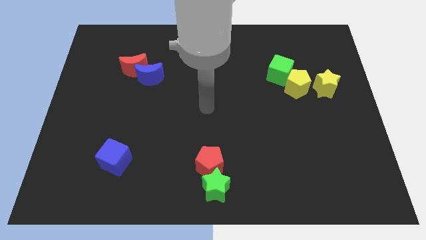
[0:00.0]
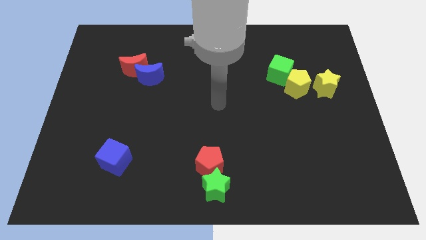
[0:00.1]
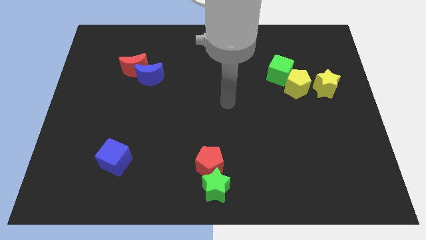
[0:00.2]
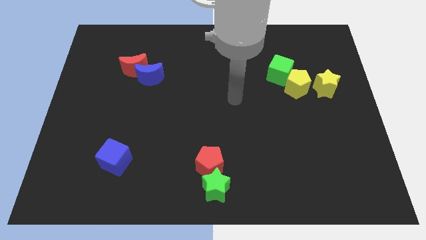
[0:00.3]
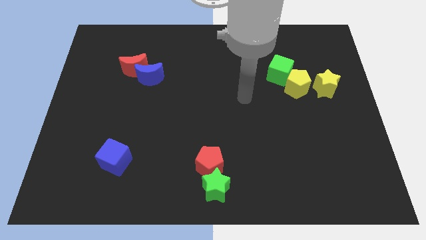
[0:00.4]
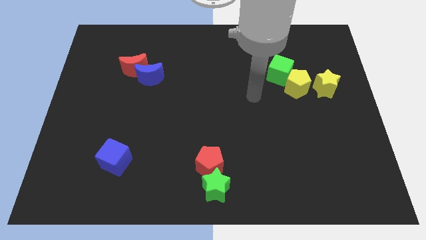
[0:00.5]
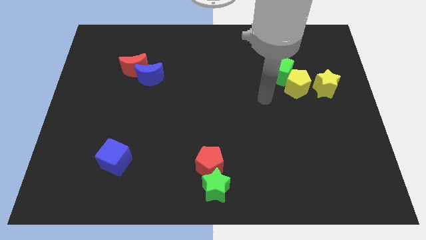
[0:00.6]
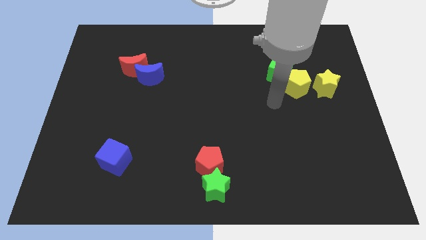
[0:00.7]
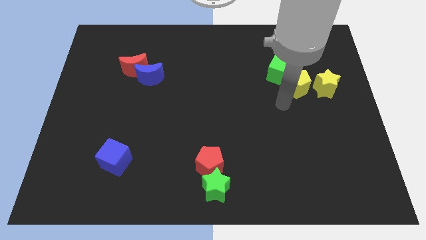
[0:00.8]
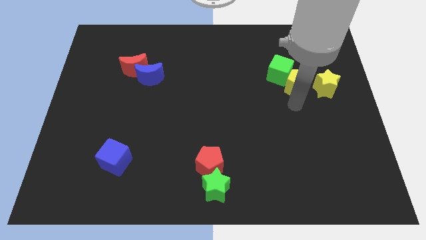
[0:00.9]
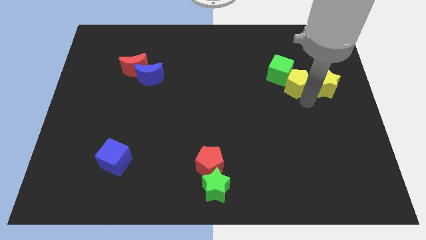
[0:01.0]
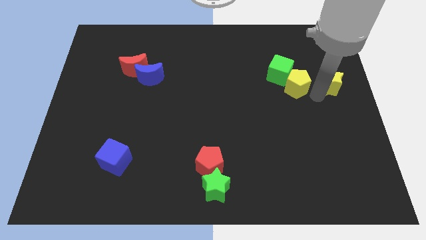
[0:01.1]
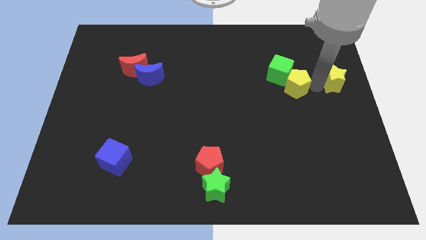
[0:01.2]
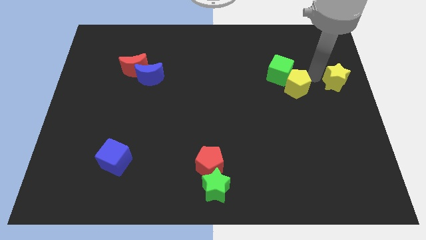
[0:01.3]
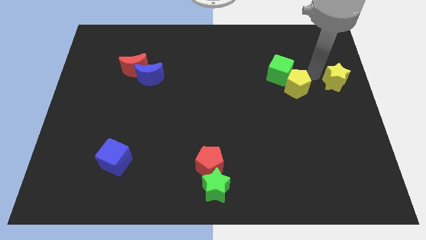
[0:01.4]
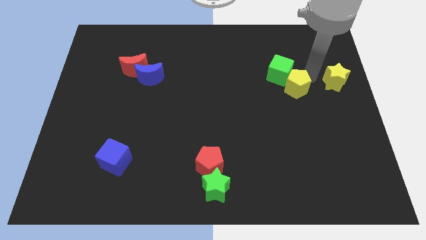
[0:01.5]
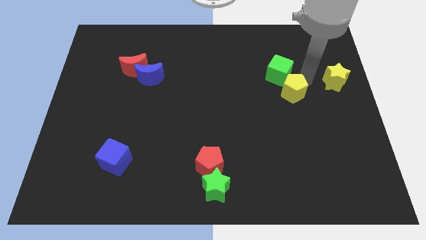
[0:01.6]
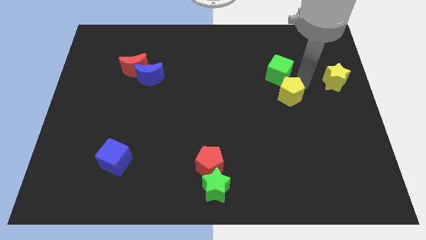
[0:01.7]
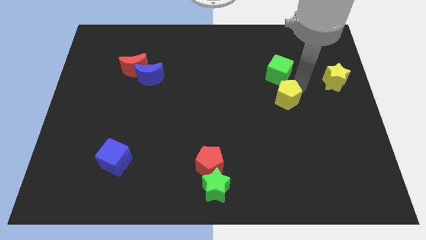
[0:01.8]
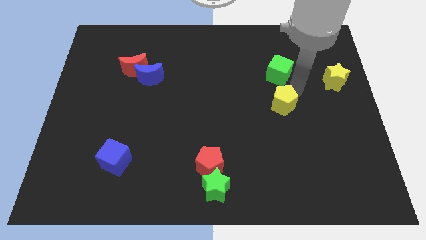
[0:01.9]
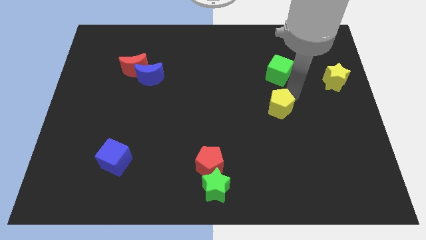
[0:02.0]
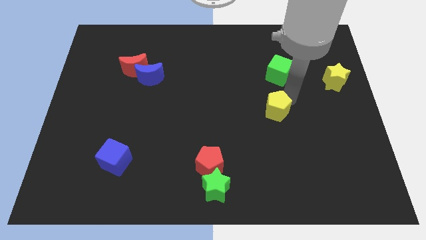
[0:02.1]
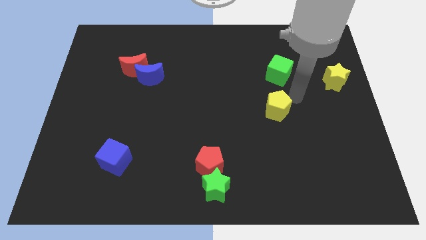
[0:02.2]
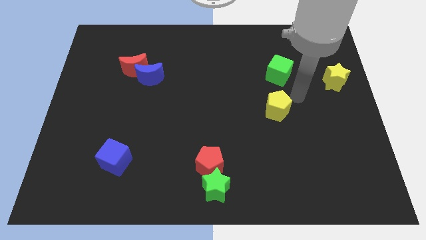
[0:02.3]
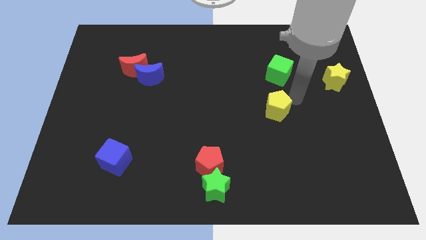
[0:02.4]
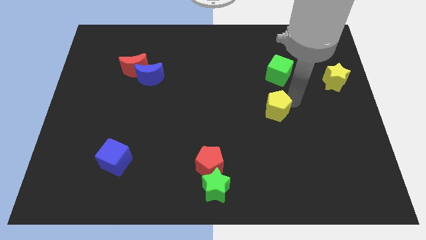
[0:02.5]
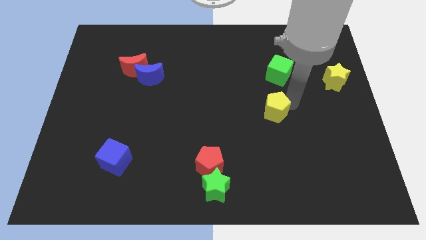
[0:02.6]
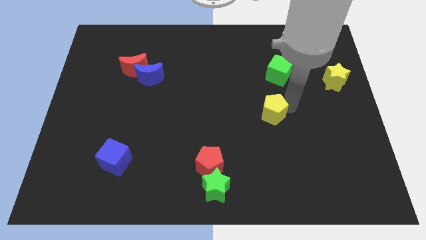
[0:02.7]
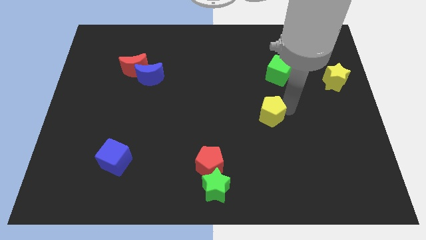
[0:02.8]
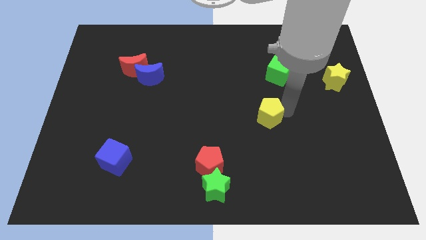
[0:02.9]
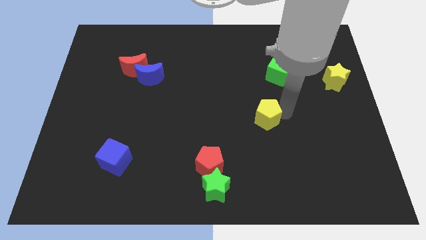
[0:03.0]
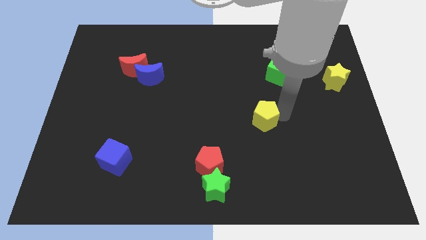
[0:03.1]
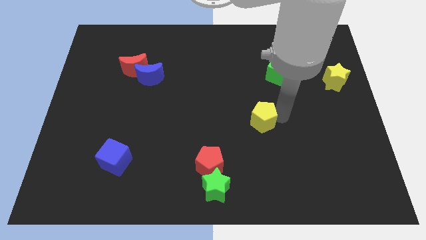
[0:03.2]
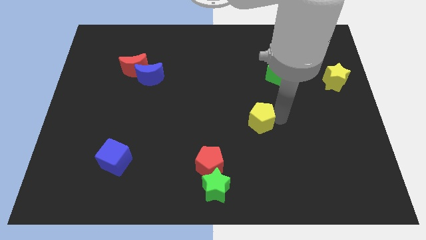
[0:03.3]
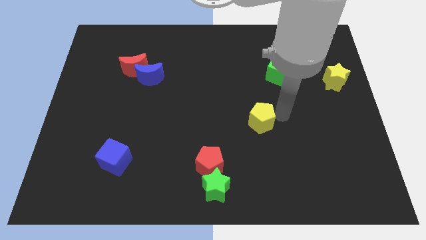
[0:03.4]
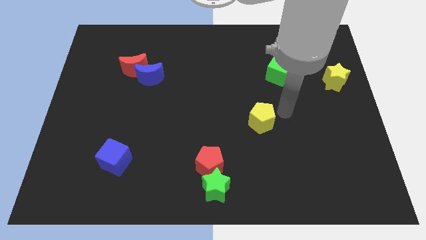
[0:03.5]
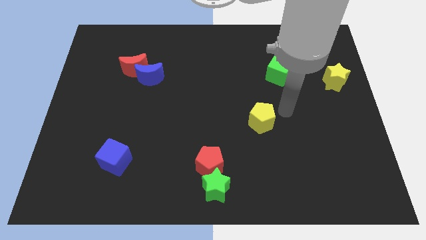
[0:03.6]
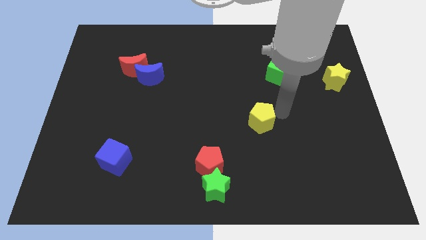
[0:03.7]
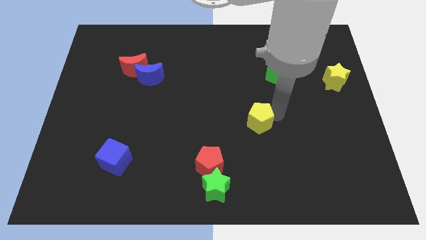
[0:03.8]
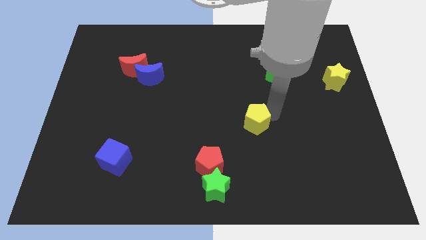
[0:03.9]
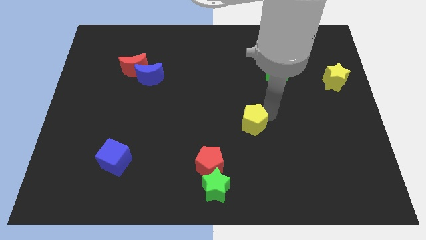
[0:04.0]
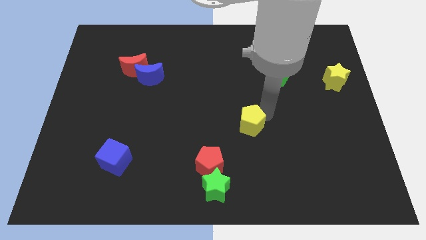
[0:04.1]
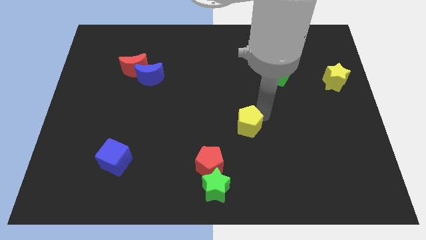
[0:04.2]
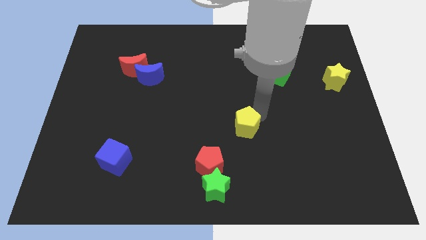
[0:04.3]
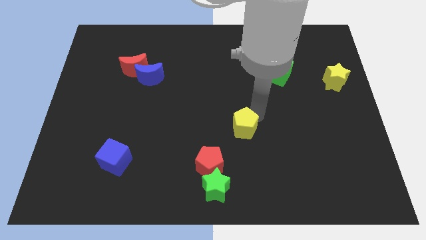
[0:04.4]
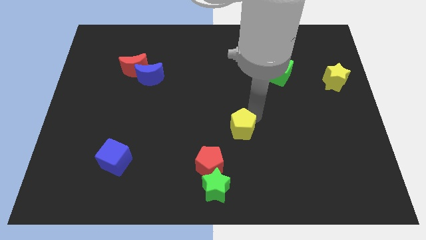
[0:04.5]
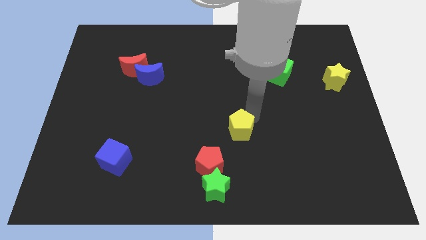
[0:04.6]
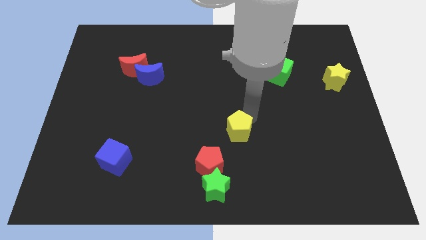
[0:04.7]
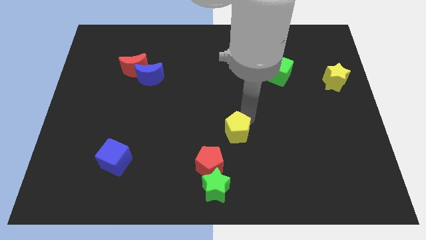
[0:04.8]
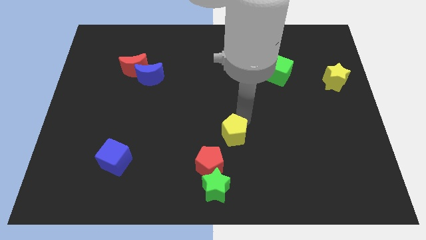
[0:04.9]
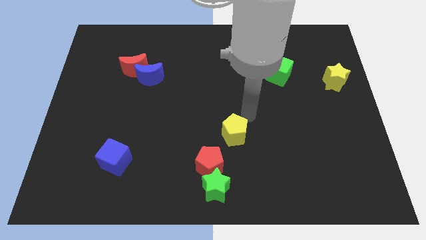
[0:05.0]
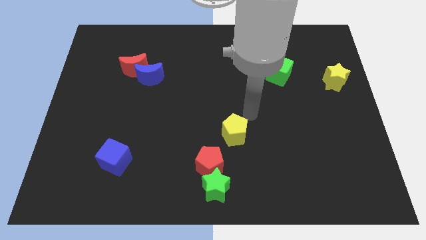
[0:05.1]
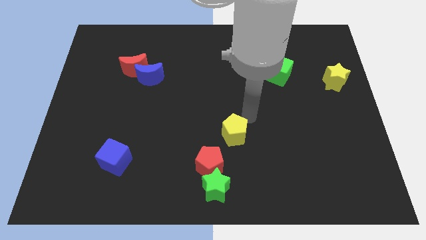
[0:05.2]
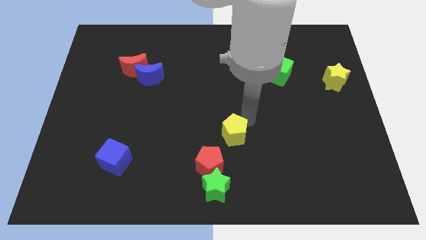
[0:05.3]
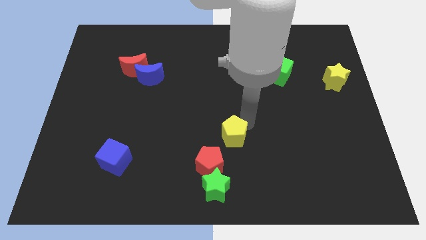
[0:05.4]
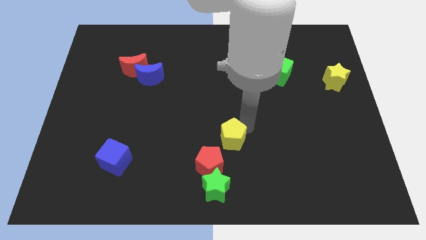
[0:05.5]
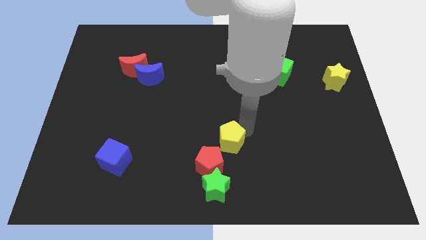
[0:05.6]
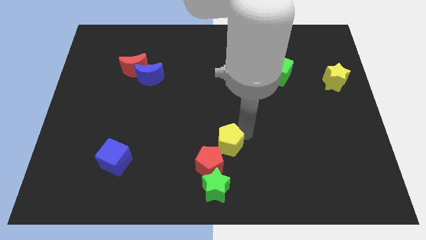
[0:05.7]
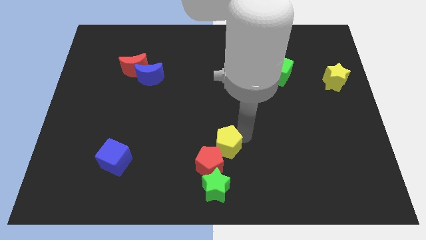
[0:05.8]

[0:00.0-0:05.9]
move the yellow pentagon towards the red pentagon
